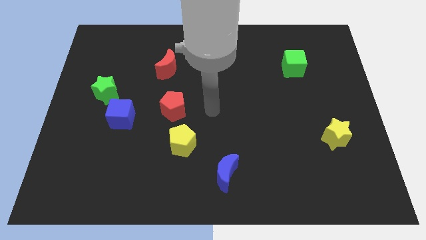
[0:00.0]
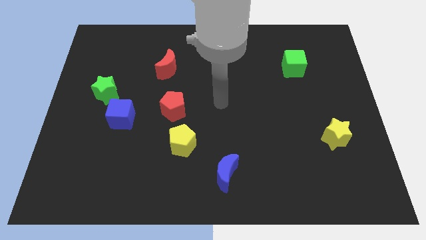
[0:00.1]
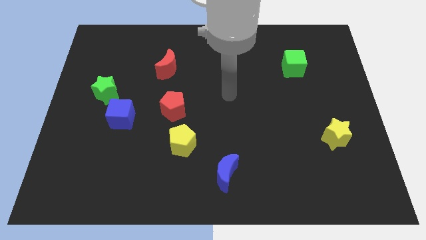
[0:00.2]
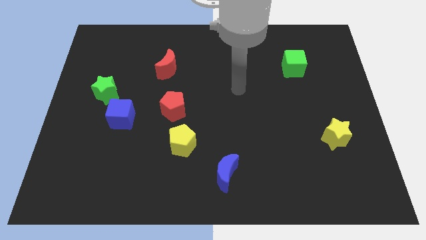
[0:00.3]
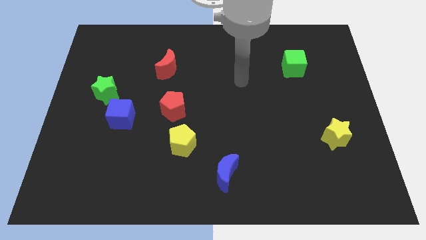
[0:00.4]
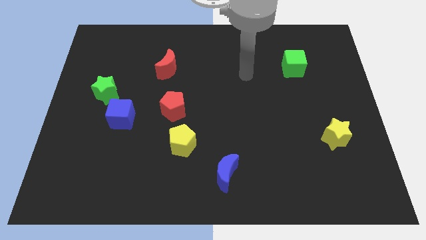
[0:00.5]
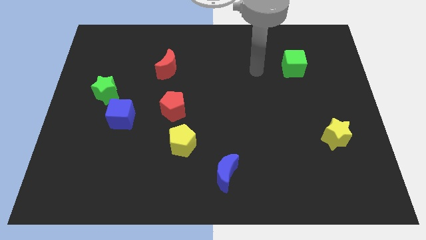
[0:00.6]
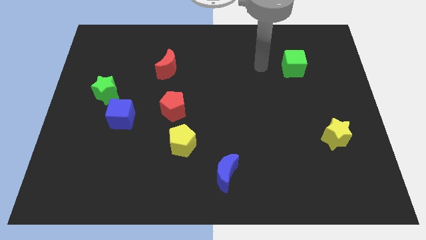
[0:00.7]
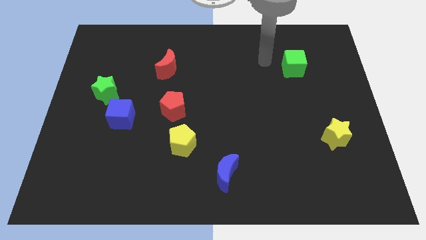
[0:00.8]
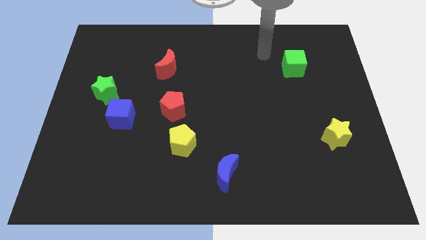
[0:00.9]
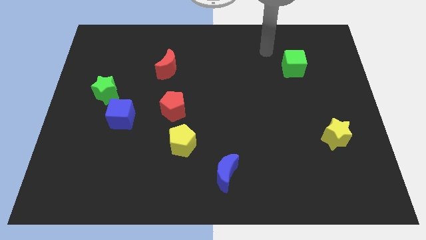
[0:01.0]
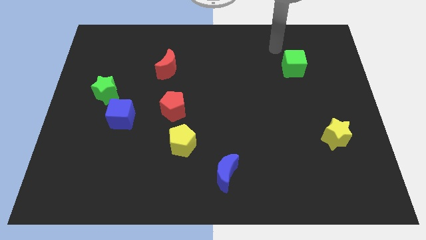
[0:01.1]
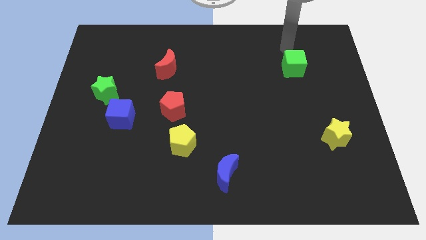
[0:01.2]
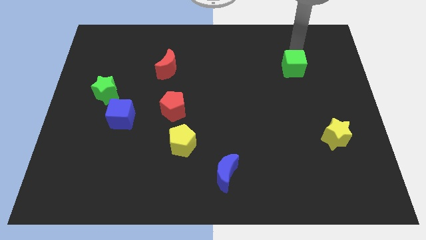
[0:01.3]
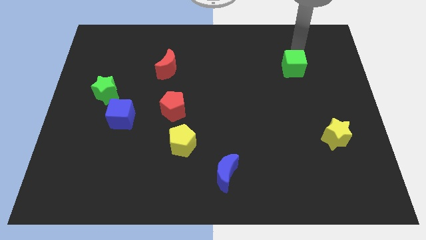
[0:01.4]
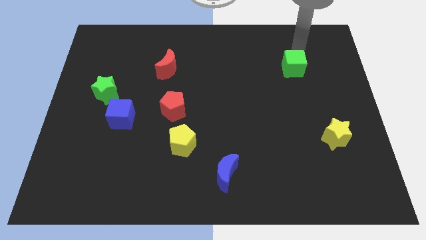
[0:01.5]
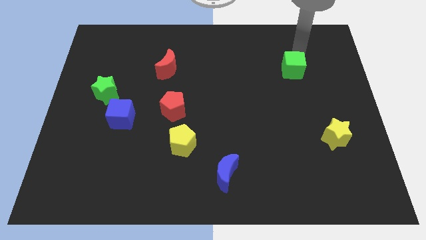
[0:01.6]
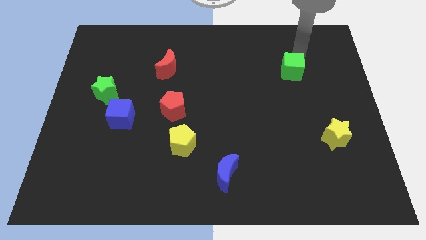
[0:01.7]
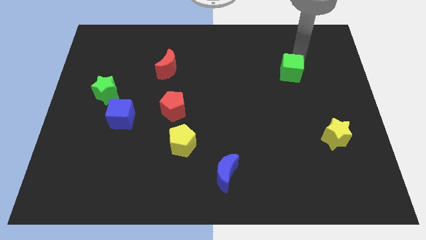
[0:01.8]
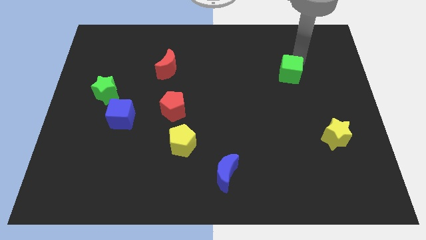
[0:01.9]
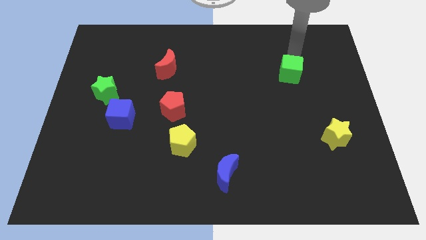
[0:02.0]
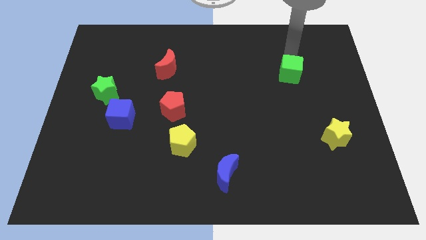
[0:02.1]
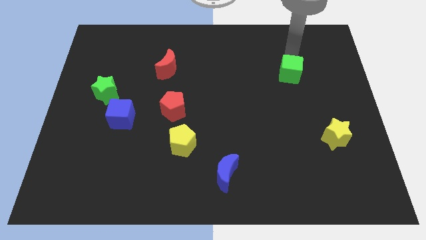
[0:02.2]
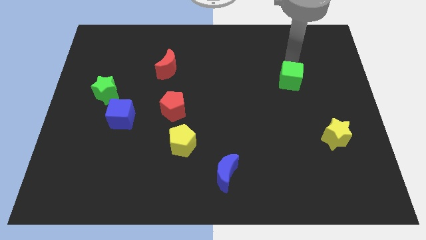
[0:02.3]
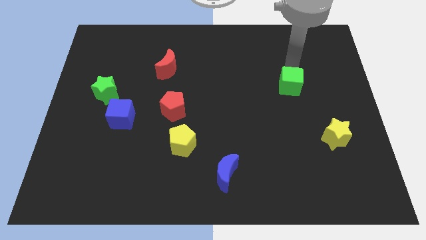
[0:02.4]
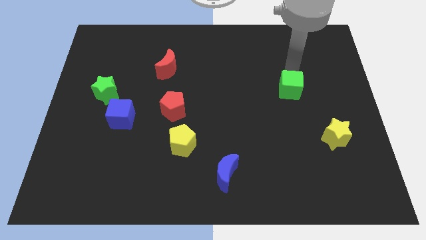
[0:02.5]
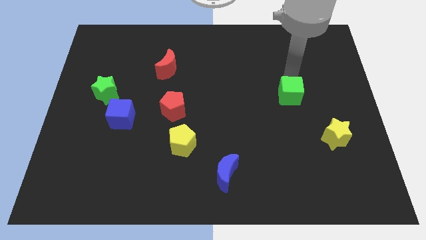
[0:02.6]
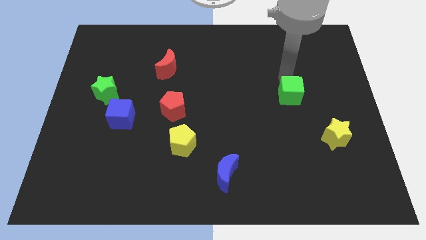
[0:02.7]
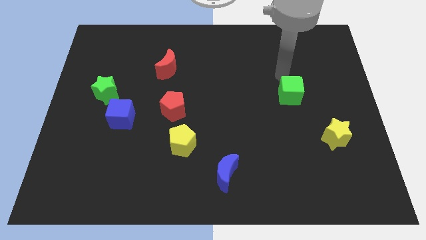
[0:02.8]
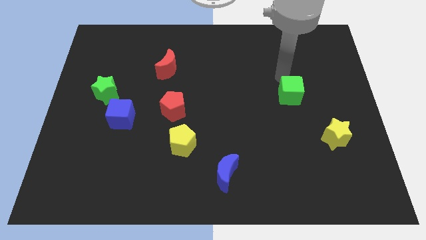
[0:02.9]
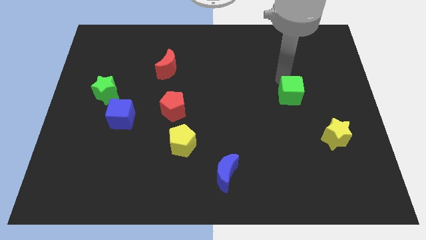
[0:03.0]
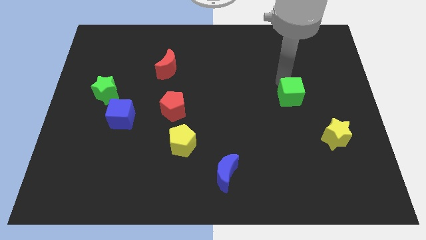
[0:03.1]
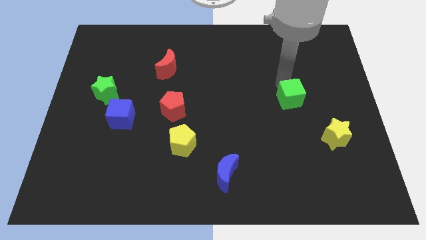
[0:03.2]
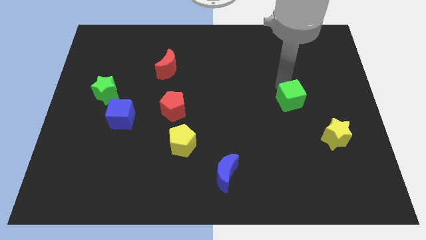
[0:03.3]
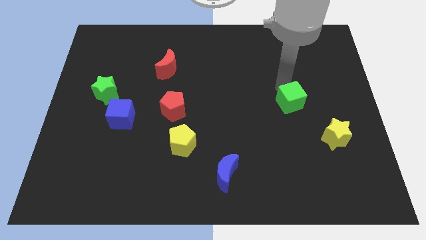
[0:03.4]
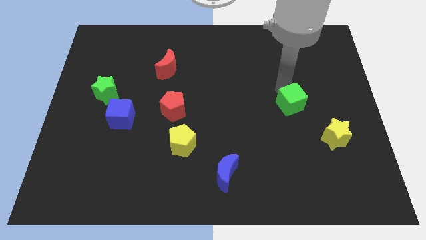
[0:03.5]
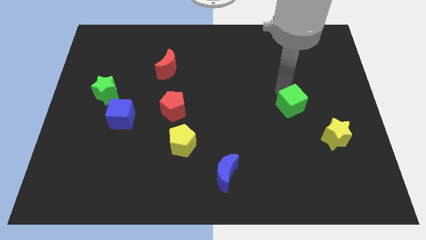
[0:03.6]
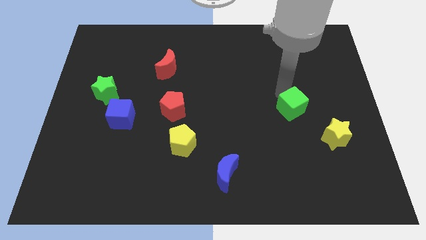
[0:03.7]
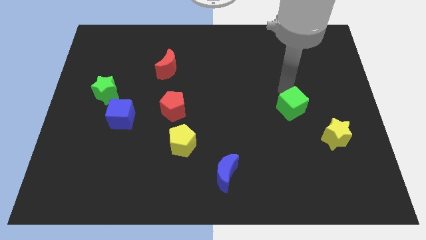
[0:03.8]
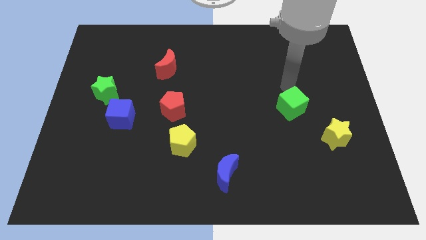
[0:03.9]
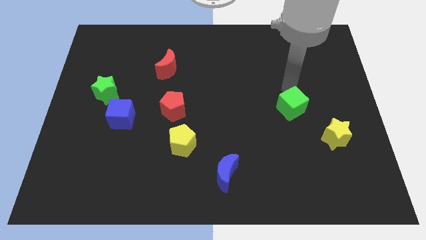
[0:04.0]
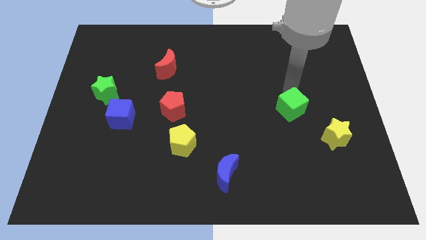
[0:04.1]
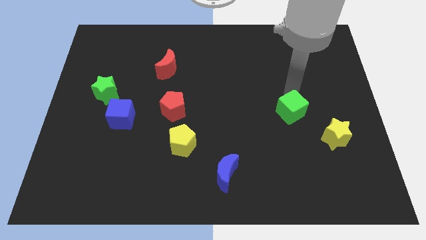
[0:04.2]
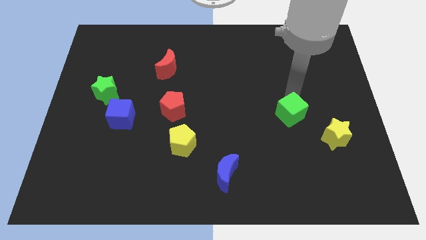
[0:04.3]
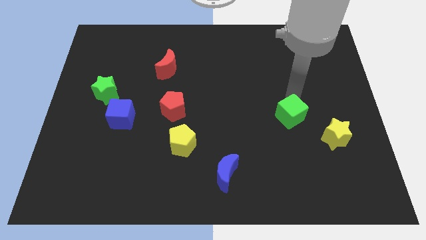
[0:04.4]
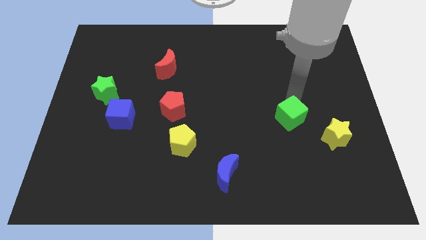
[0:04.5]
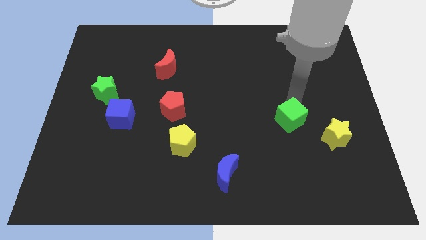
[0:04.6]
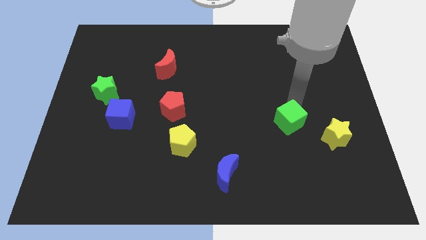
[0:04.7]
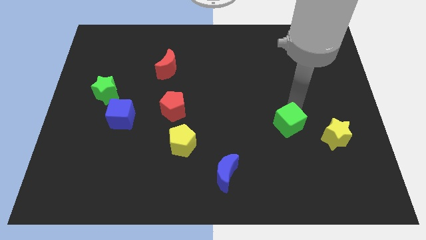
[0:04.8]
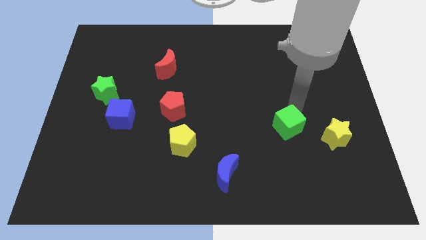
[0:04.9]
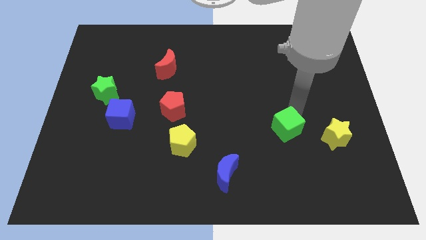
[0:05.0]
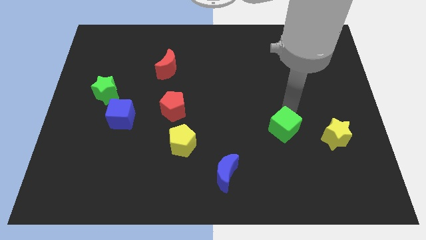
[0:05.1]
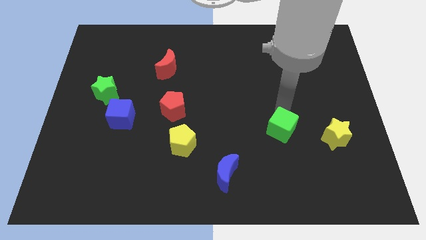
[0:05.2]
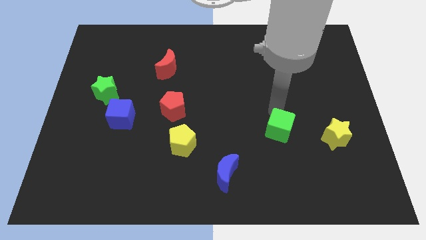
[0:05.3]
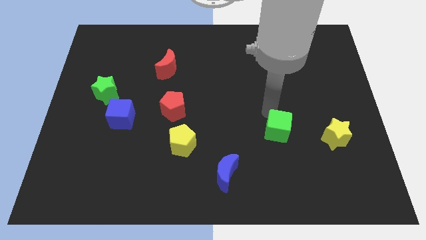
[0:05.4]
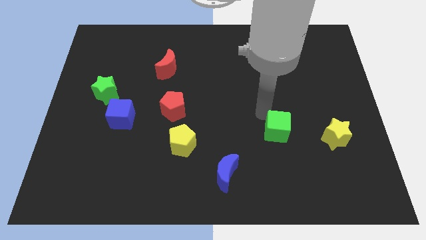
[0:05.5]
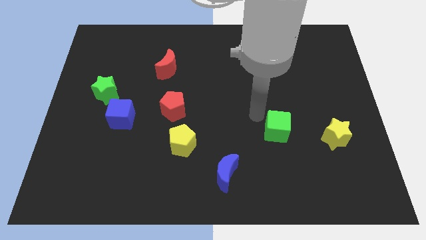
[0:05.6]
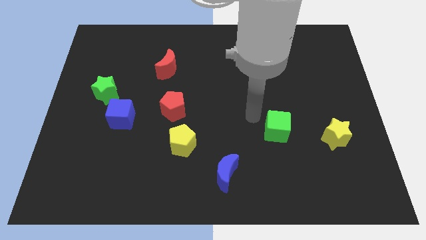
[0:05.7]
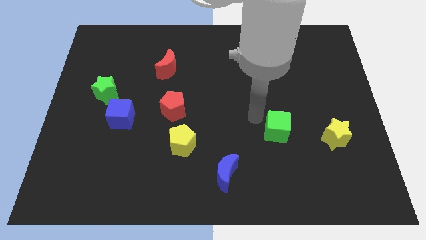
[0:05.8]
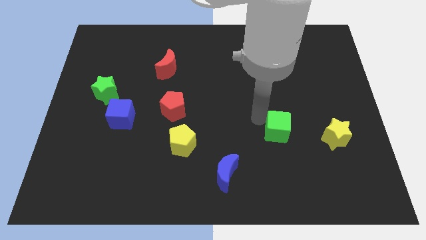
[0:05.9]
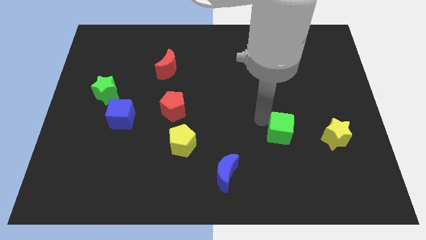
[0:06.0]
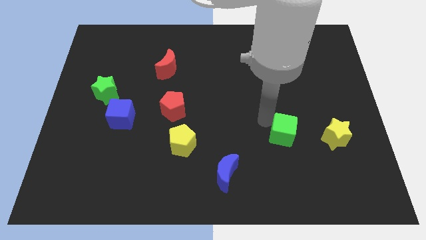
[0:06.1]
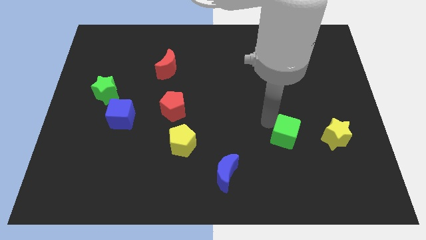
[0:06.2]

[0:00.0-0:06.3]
push the green cube down

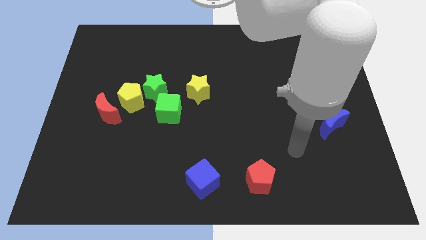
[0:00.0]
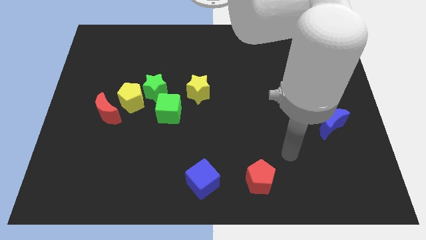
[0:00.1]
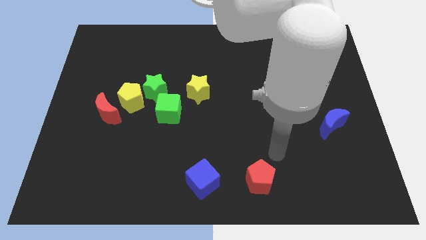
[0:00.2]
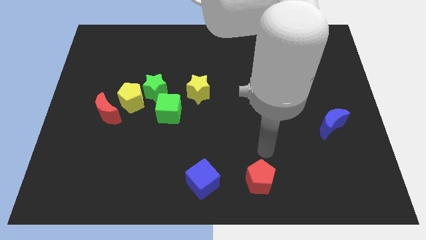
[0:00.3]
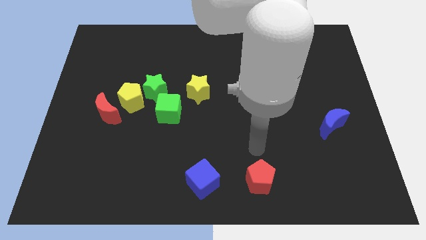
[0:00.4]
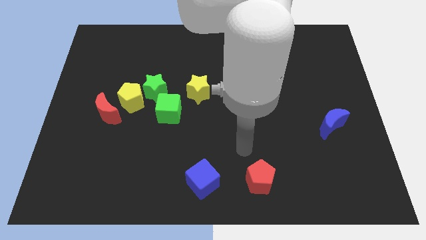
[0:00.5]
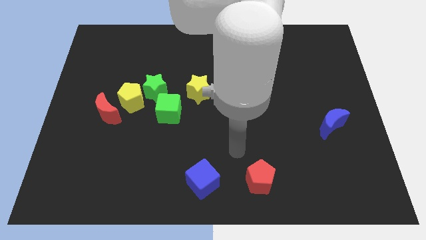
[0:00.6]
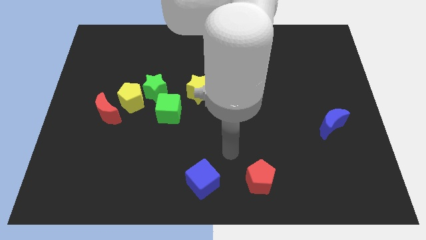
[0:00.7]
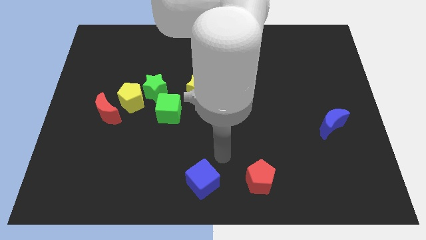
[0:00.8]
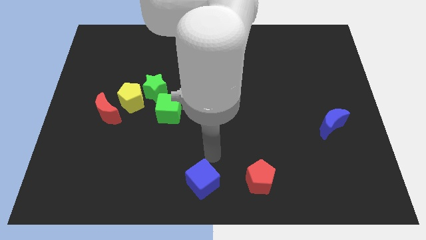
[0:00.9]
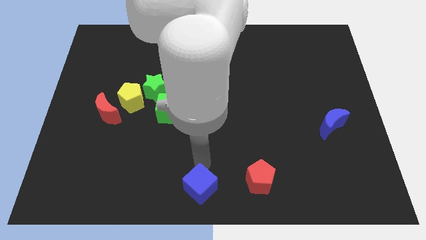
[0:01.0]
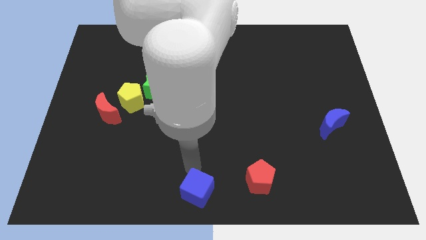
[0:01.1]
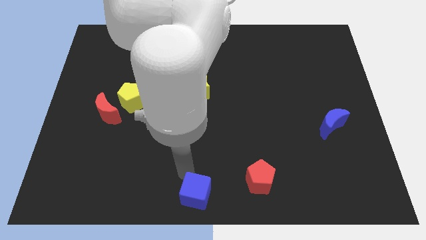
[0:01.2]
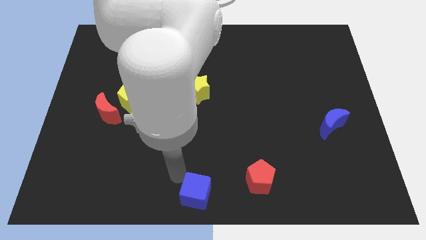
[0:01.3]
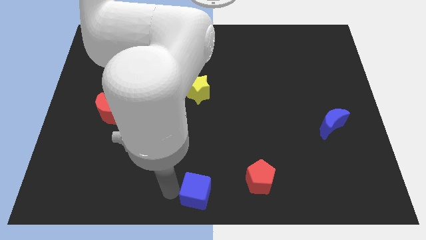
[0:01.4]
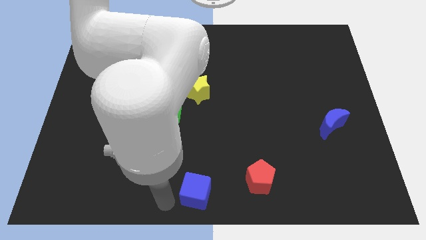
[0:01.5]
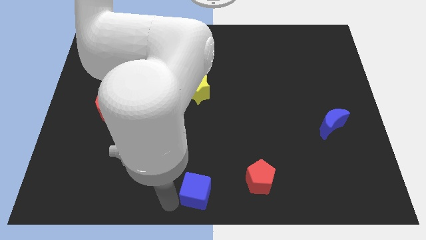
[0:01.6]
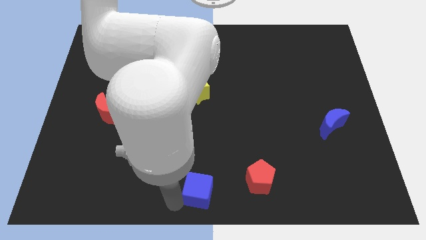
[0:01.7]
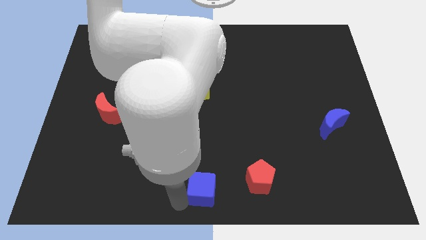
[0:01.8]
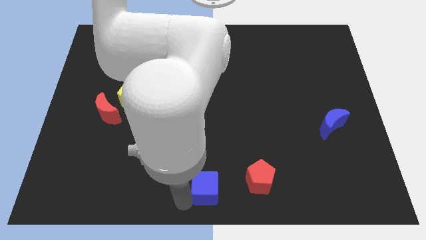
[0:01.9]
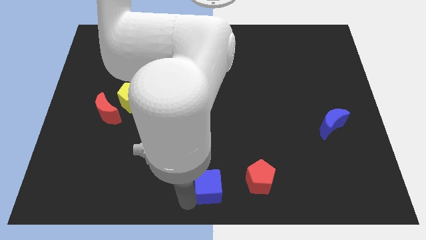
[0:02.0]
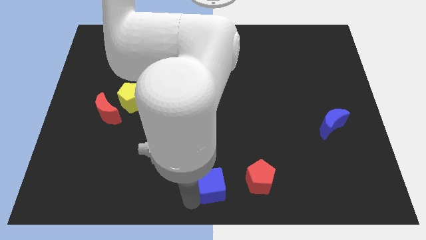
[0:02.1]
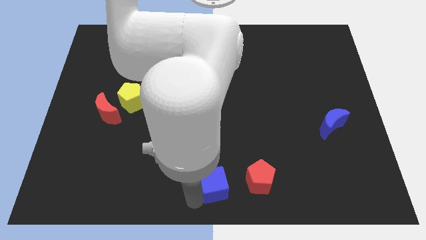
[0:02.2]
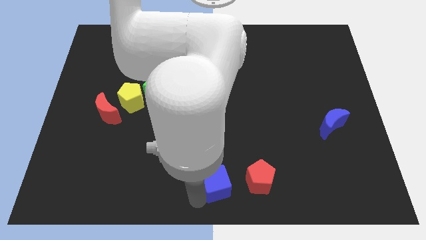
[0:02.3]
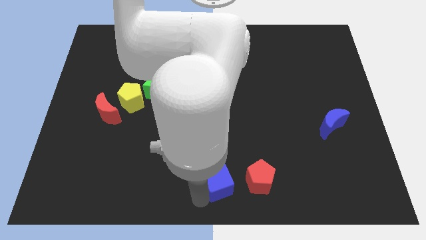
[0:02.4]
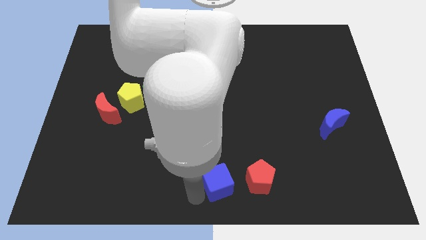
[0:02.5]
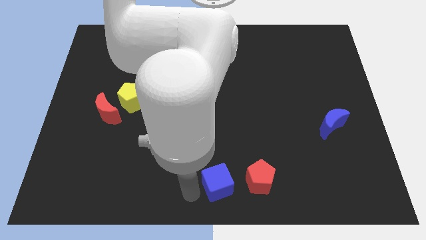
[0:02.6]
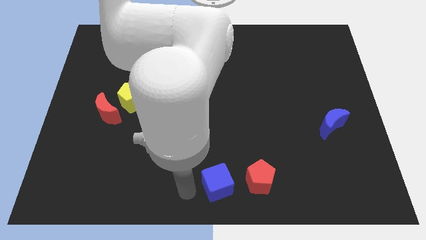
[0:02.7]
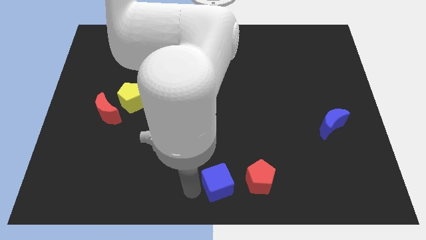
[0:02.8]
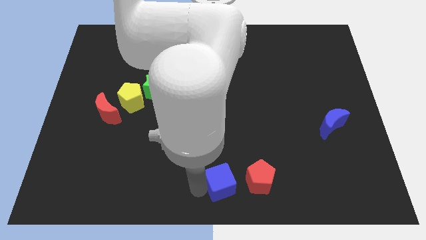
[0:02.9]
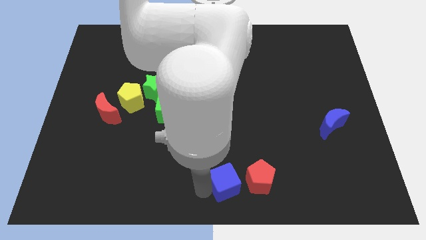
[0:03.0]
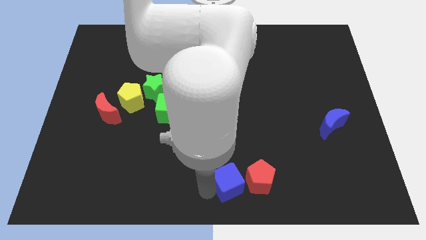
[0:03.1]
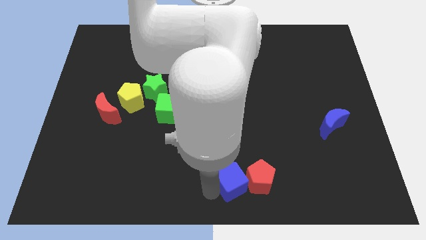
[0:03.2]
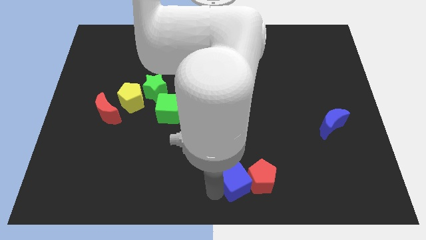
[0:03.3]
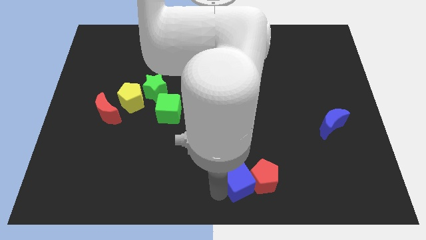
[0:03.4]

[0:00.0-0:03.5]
push the blue cube a little bit right
